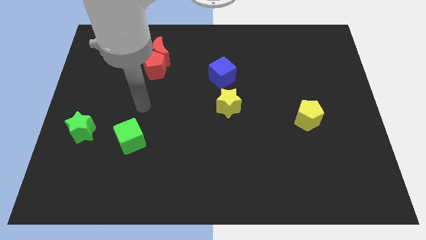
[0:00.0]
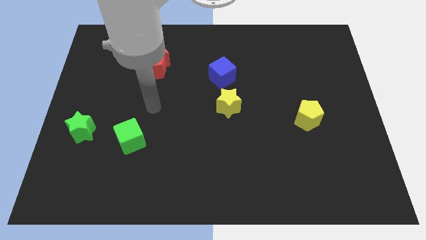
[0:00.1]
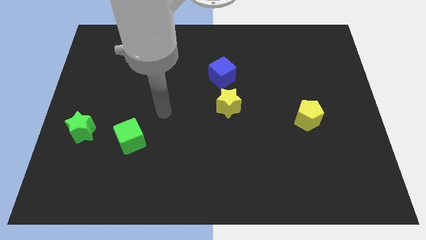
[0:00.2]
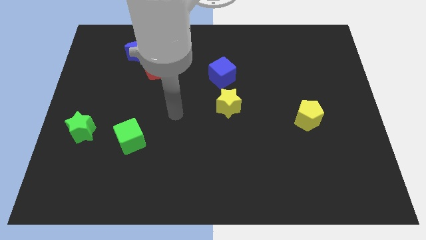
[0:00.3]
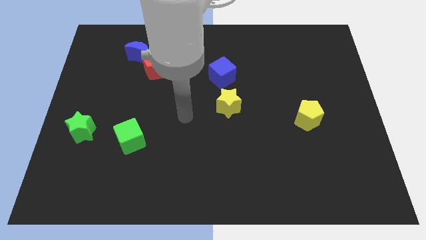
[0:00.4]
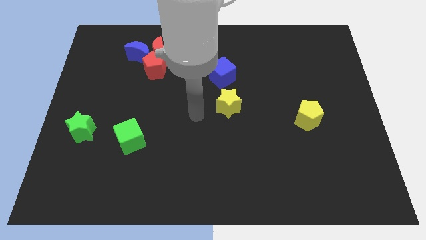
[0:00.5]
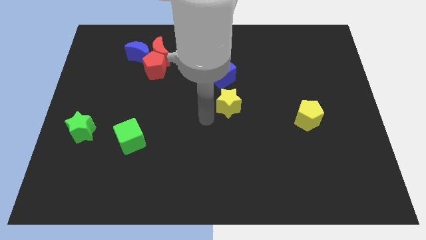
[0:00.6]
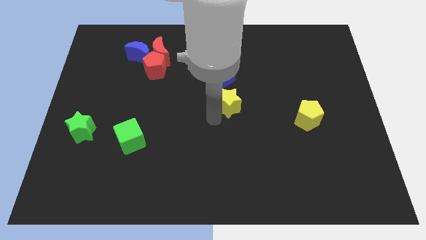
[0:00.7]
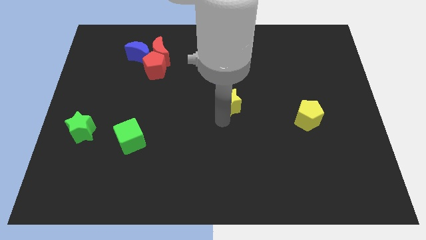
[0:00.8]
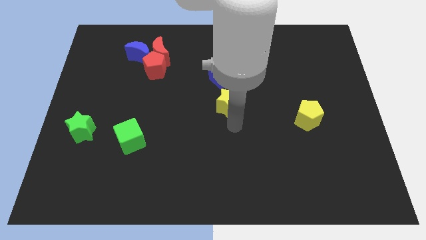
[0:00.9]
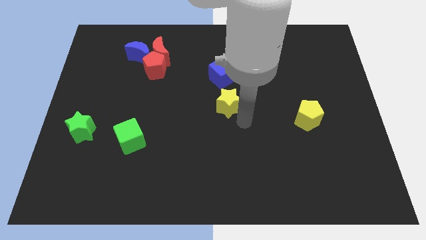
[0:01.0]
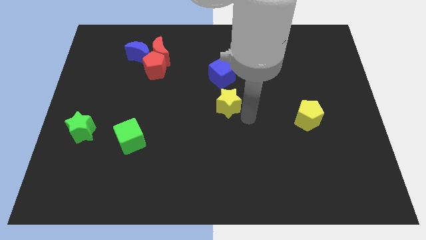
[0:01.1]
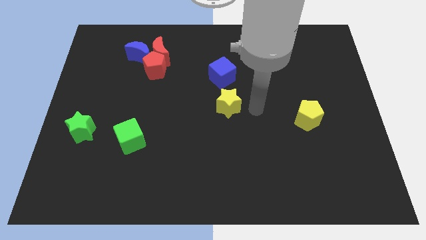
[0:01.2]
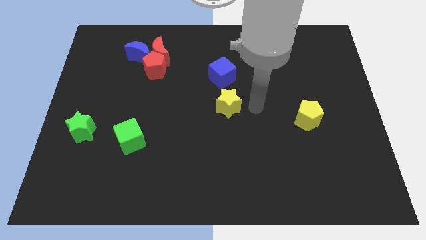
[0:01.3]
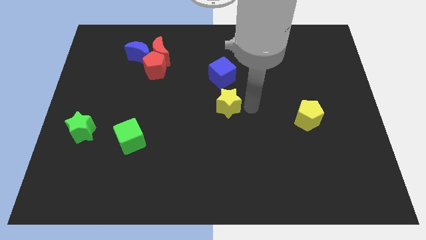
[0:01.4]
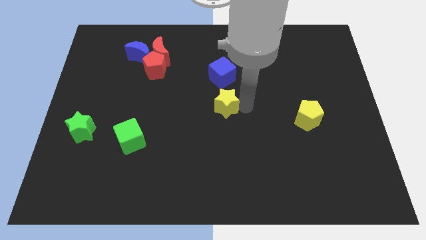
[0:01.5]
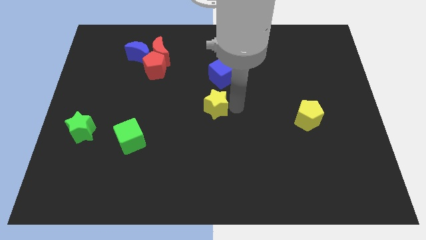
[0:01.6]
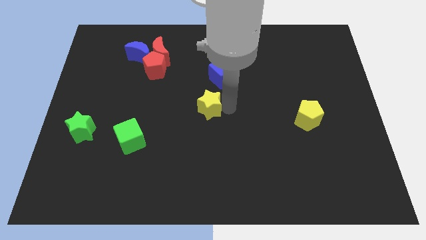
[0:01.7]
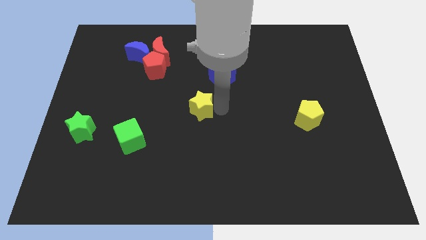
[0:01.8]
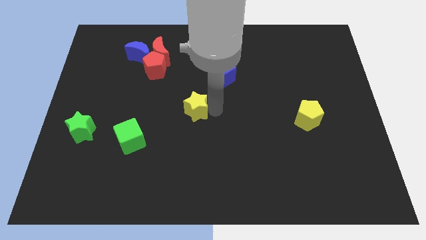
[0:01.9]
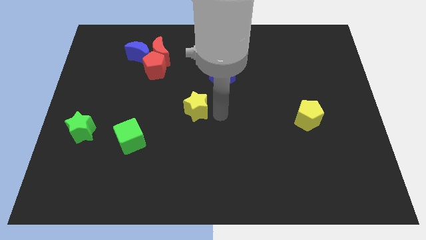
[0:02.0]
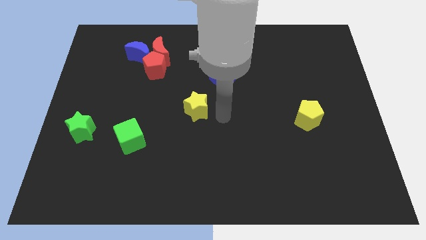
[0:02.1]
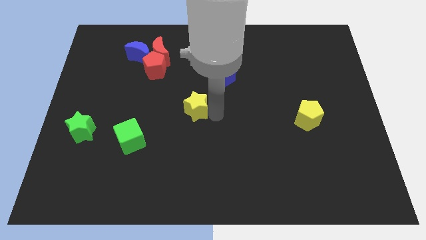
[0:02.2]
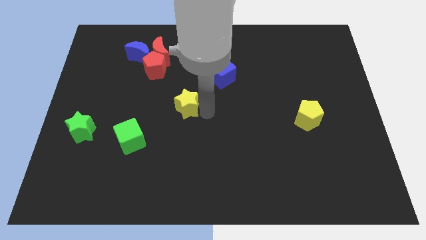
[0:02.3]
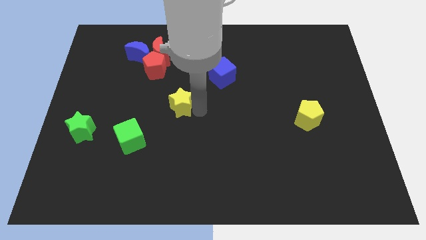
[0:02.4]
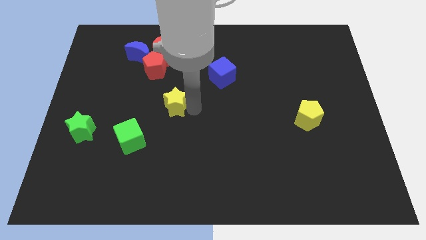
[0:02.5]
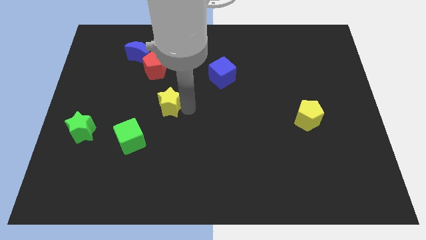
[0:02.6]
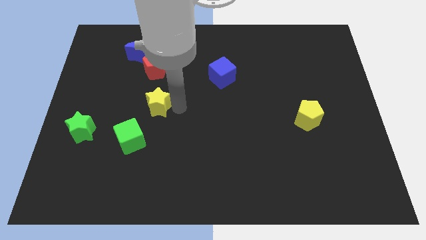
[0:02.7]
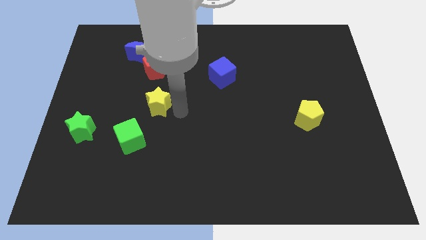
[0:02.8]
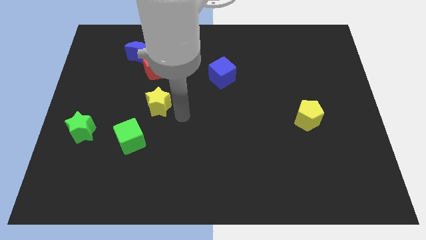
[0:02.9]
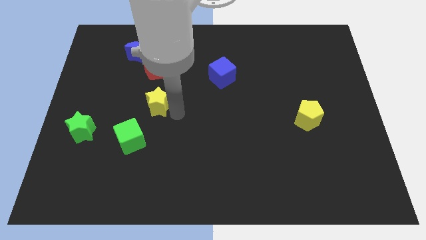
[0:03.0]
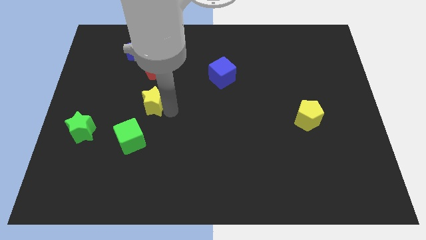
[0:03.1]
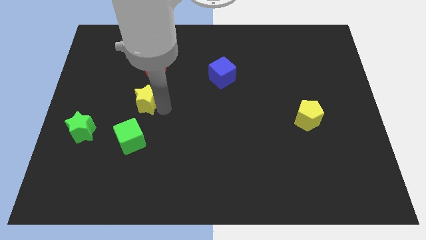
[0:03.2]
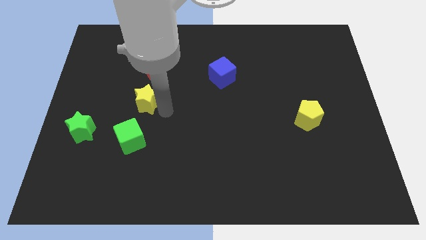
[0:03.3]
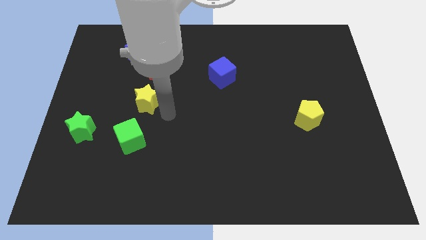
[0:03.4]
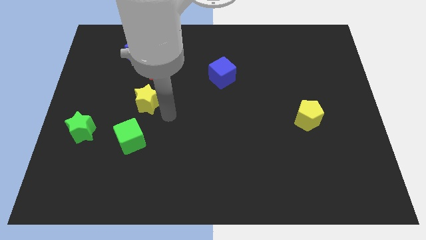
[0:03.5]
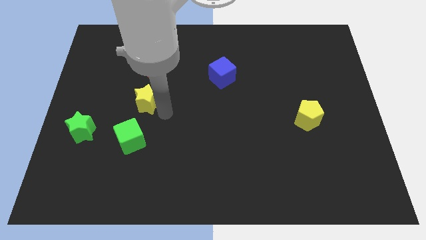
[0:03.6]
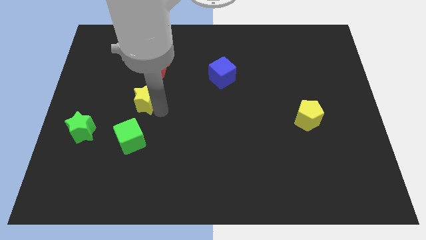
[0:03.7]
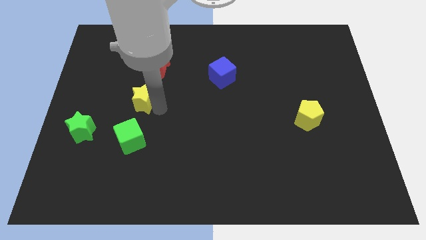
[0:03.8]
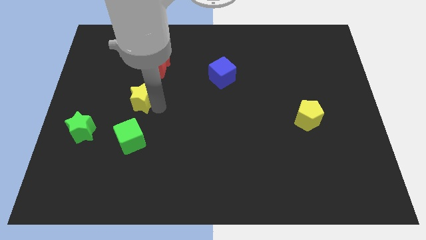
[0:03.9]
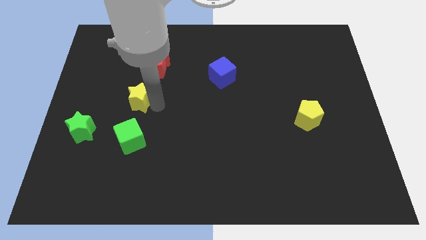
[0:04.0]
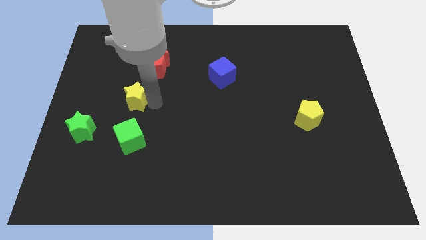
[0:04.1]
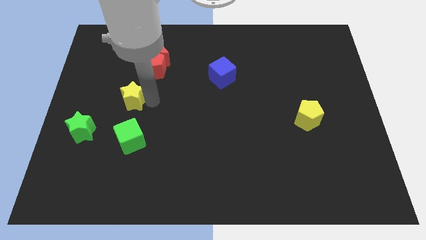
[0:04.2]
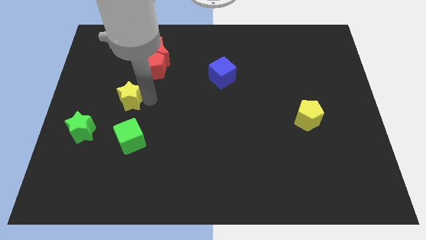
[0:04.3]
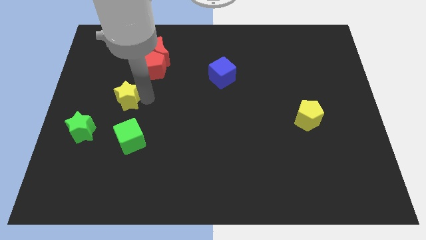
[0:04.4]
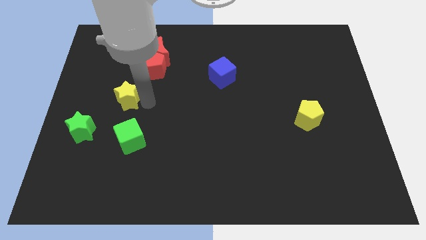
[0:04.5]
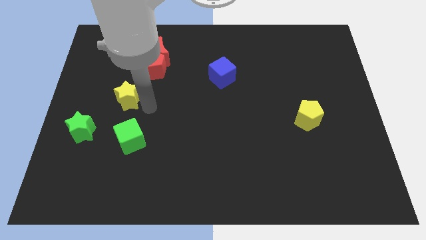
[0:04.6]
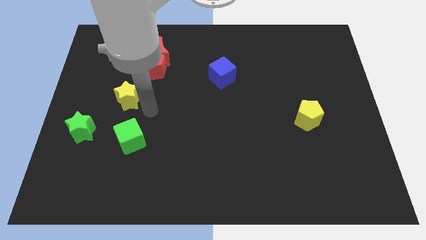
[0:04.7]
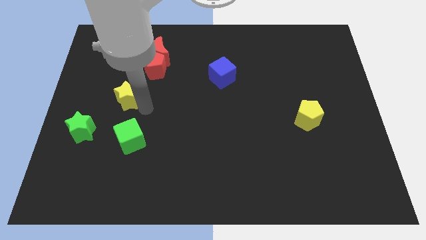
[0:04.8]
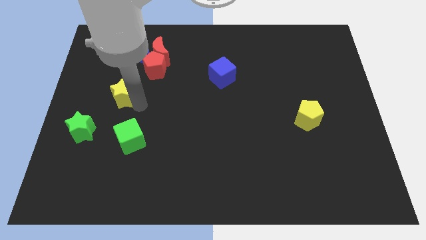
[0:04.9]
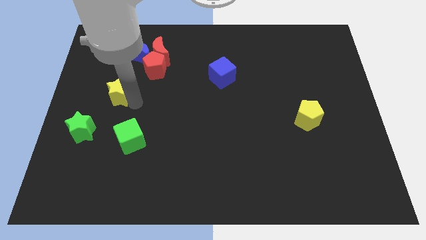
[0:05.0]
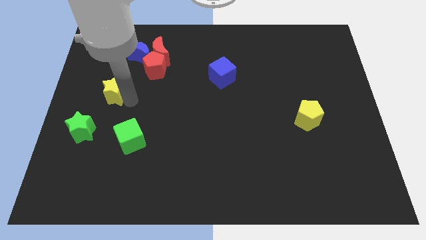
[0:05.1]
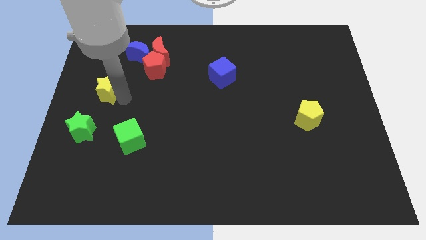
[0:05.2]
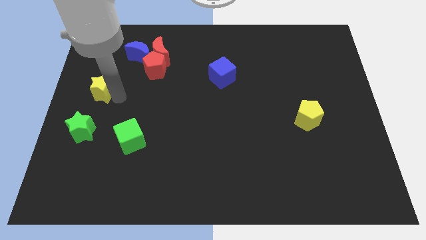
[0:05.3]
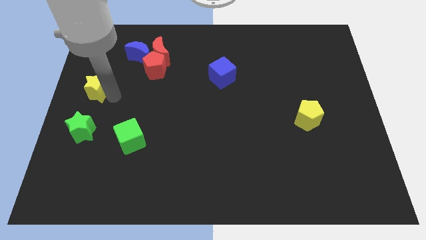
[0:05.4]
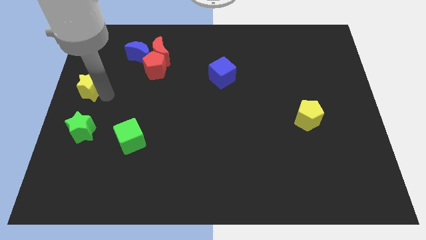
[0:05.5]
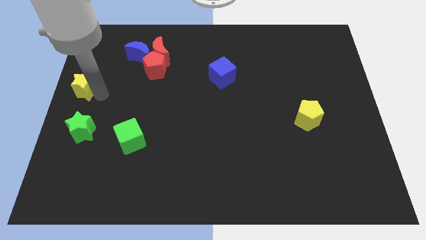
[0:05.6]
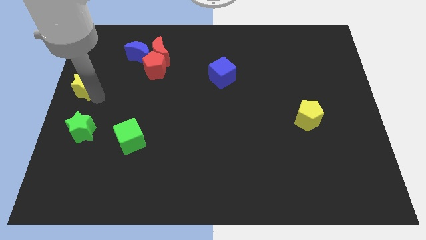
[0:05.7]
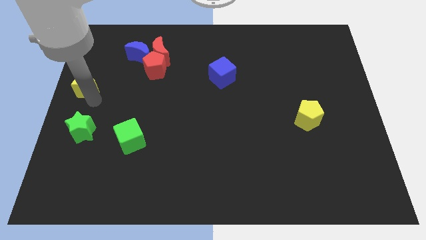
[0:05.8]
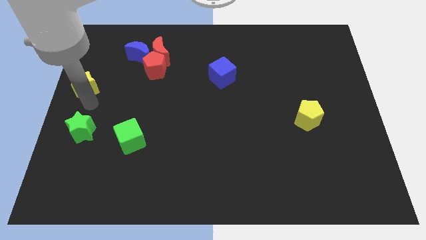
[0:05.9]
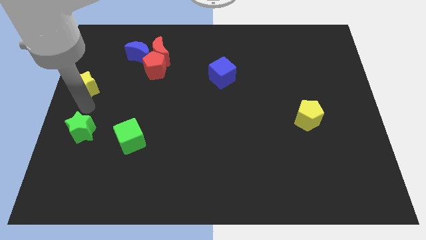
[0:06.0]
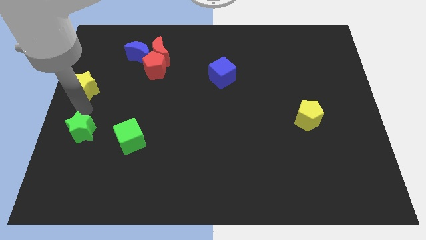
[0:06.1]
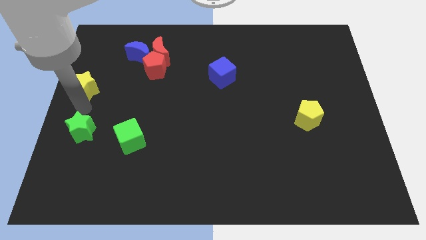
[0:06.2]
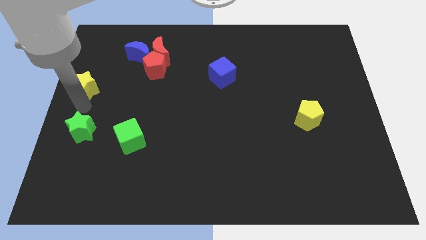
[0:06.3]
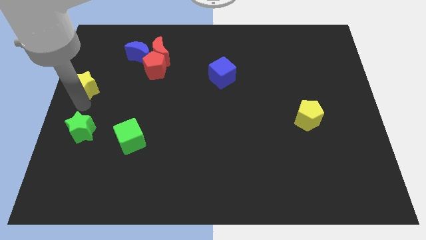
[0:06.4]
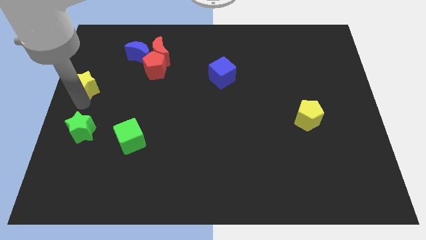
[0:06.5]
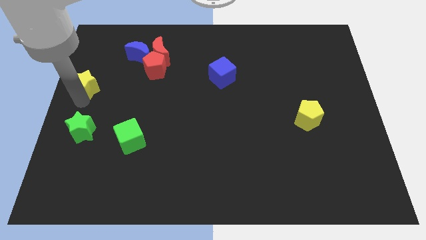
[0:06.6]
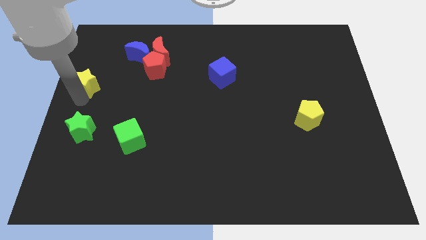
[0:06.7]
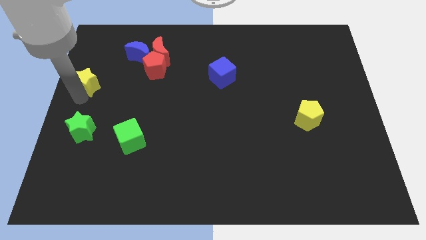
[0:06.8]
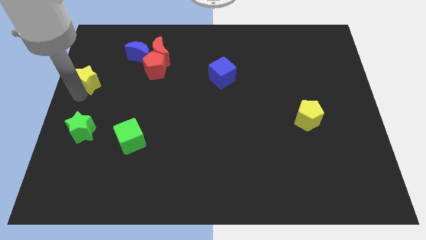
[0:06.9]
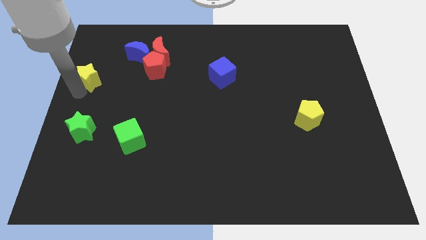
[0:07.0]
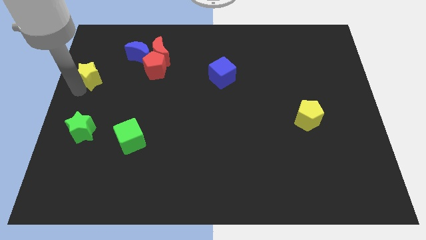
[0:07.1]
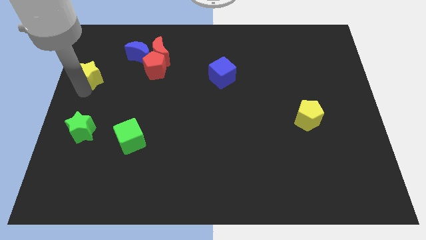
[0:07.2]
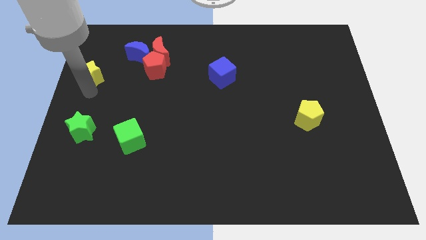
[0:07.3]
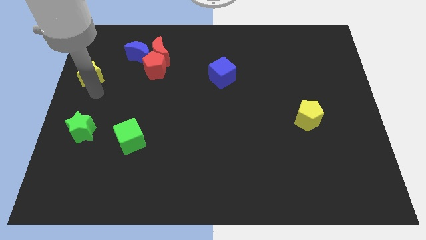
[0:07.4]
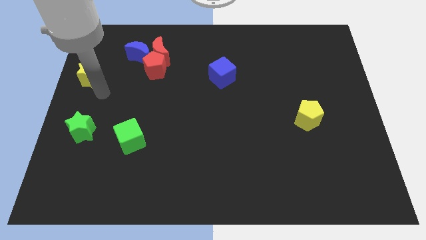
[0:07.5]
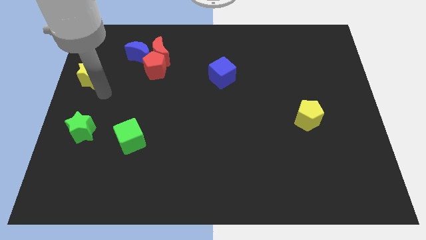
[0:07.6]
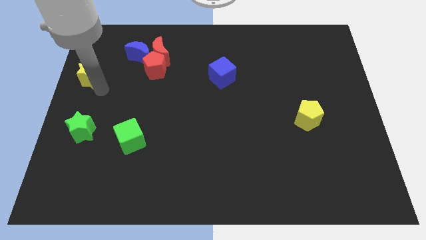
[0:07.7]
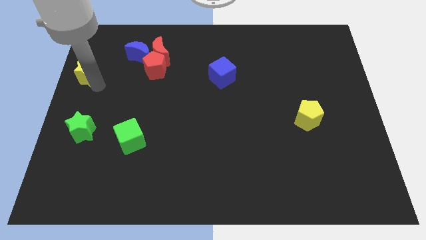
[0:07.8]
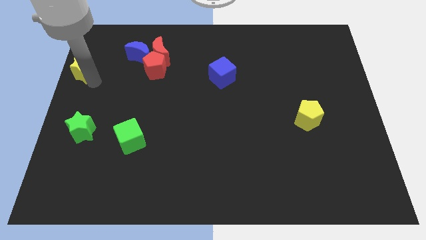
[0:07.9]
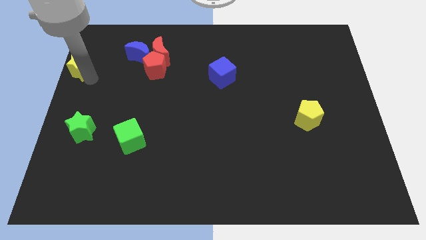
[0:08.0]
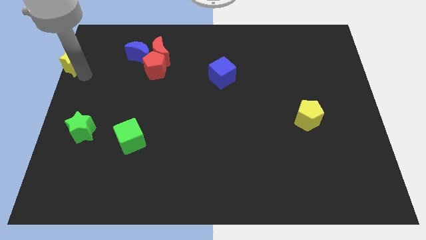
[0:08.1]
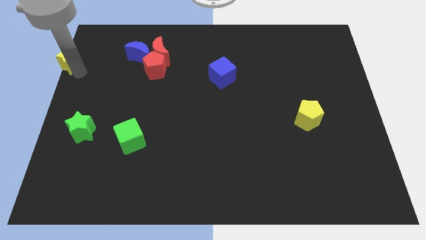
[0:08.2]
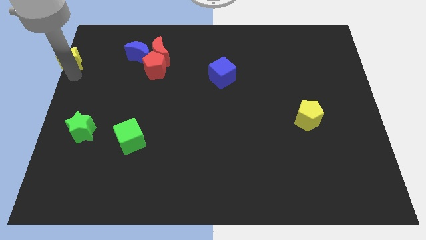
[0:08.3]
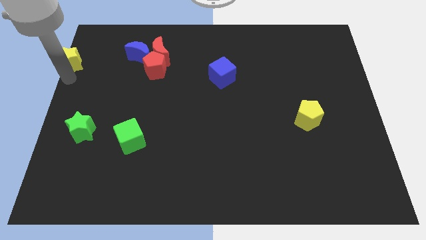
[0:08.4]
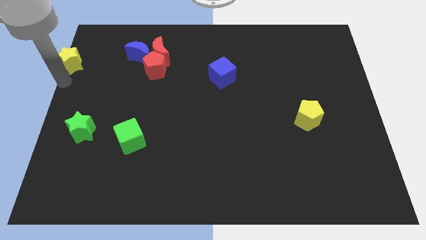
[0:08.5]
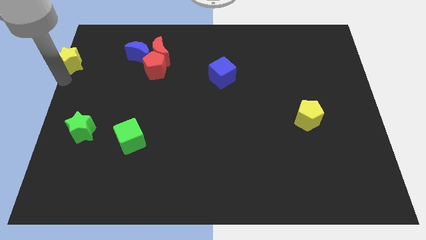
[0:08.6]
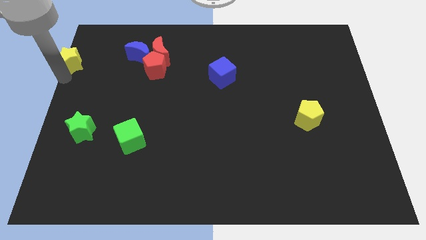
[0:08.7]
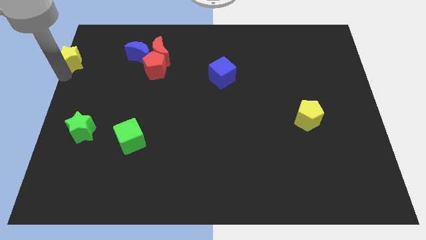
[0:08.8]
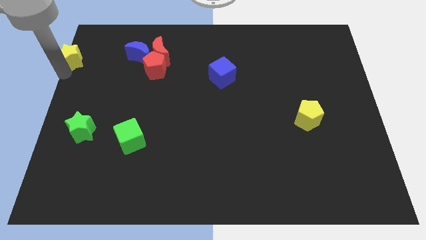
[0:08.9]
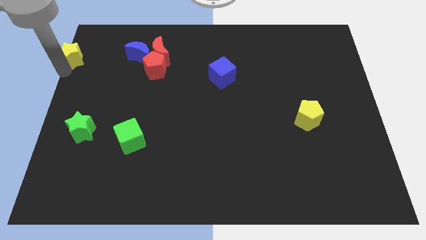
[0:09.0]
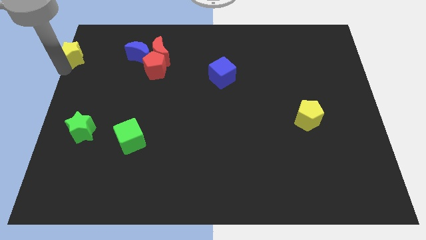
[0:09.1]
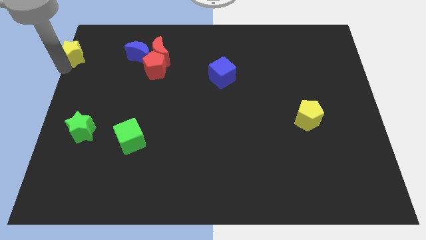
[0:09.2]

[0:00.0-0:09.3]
slide the yellow star to the top left of the board
